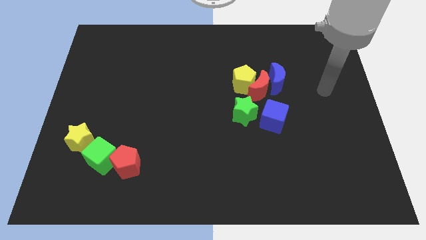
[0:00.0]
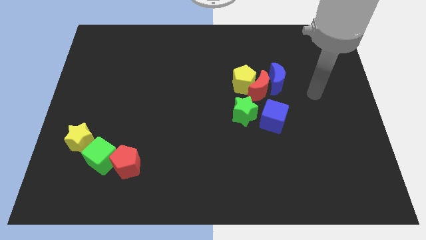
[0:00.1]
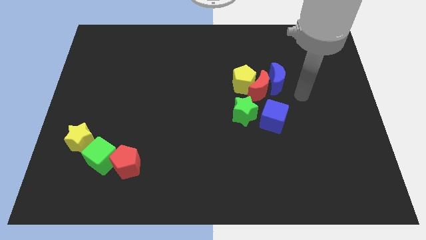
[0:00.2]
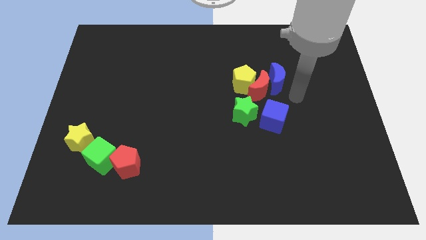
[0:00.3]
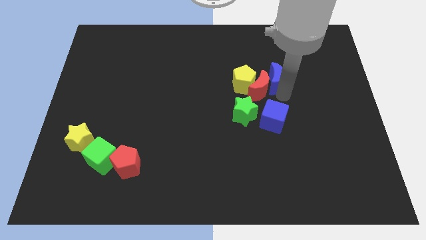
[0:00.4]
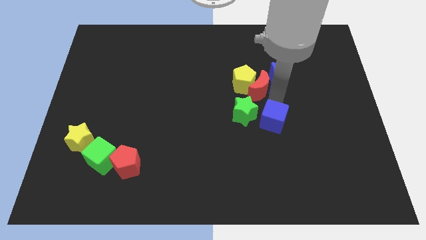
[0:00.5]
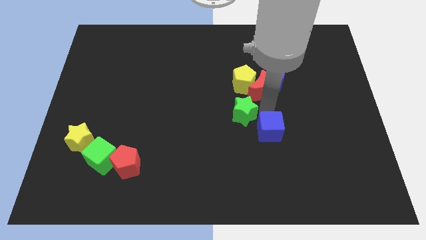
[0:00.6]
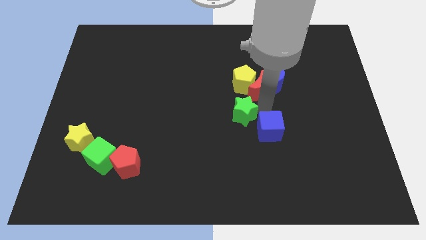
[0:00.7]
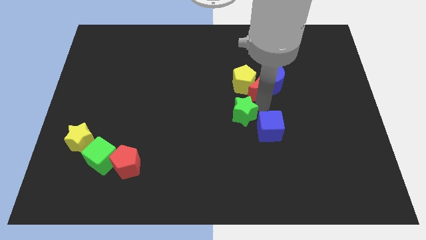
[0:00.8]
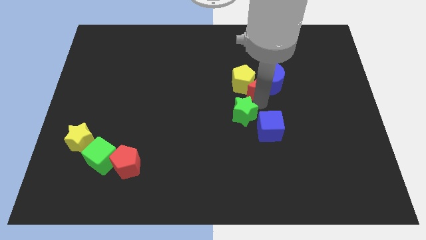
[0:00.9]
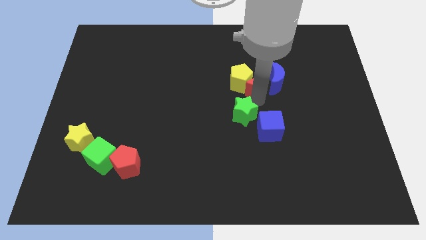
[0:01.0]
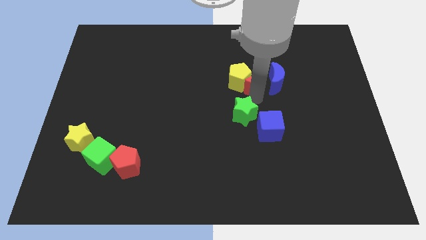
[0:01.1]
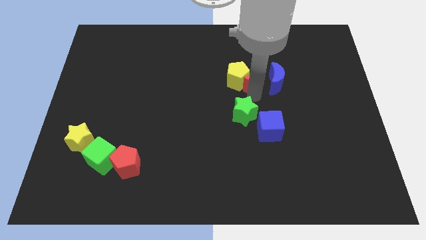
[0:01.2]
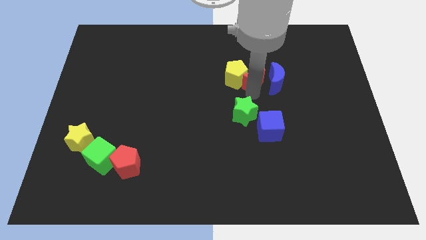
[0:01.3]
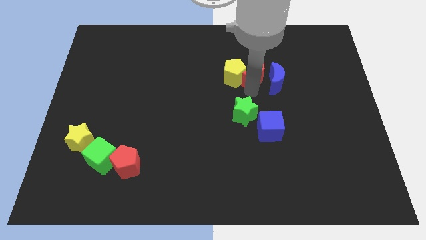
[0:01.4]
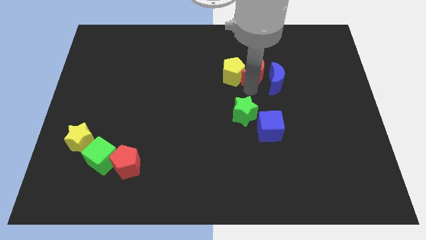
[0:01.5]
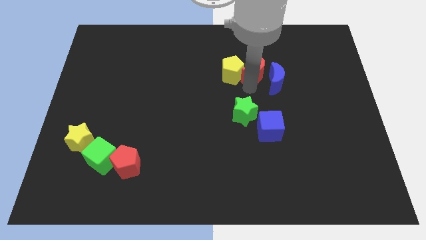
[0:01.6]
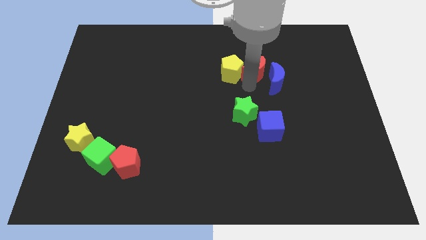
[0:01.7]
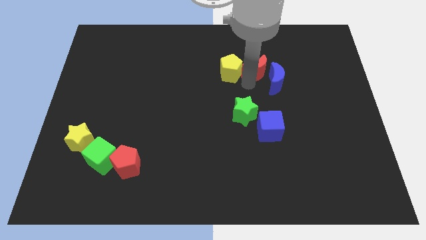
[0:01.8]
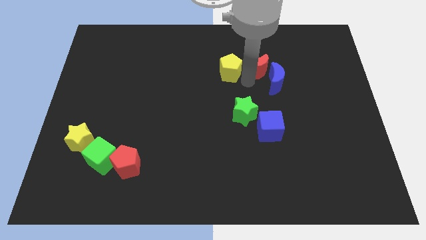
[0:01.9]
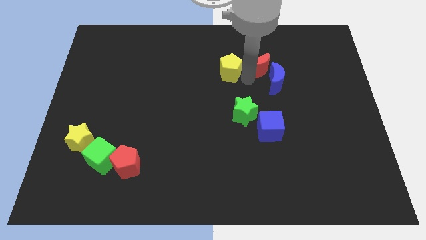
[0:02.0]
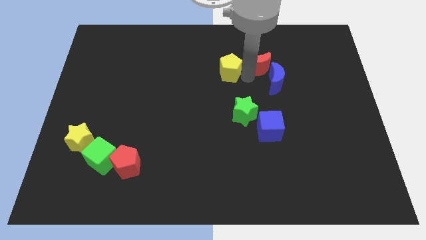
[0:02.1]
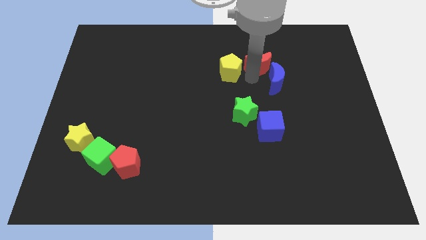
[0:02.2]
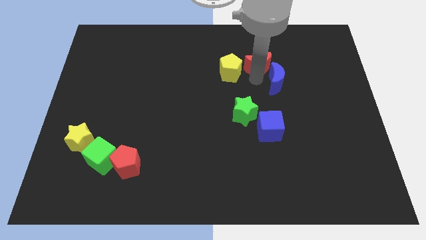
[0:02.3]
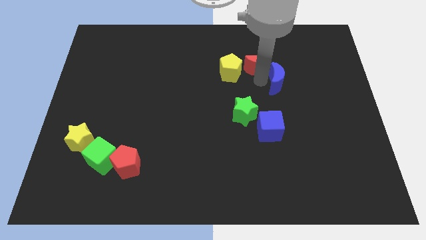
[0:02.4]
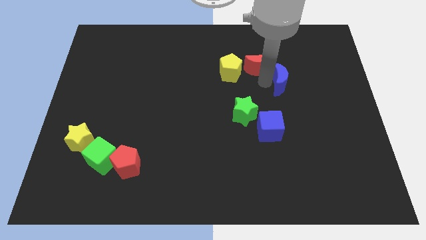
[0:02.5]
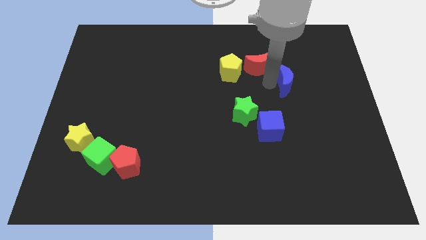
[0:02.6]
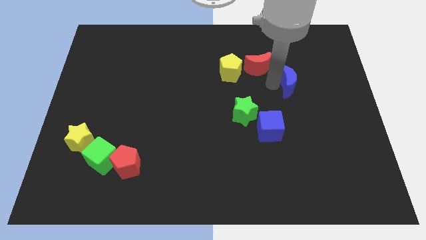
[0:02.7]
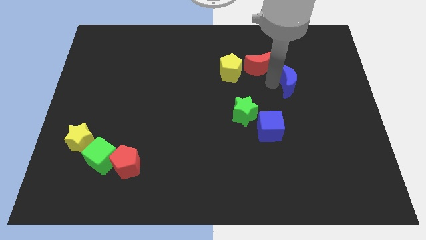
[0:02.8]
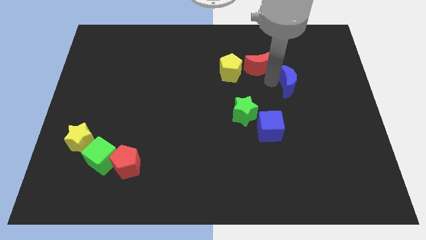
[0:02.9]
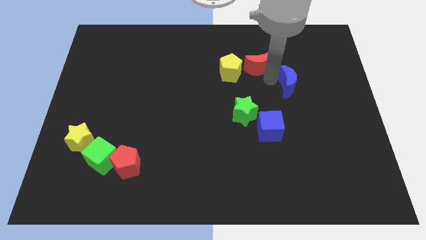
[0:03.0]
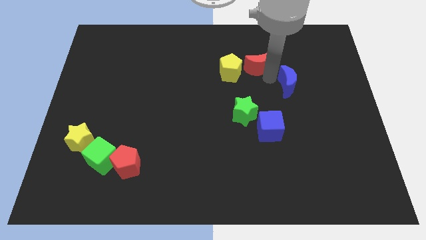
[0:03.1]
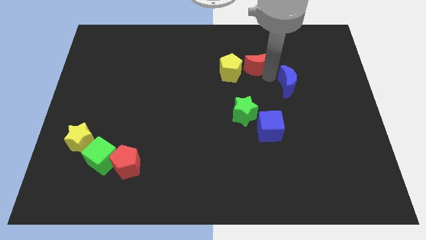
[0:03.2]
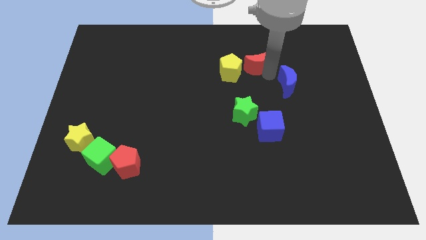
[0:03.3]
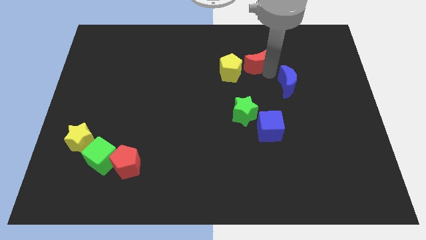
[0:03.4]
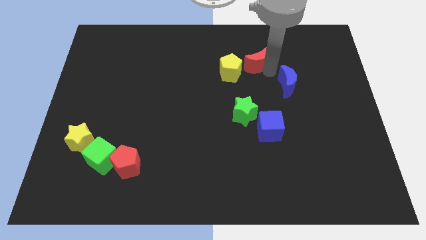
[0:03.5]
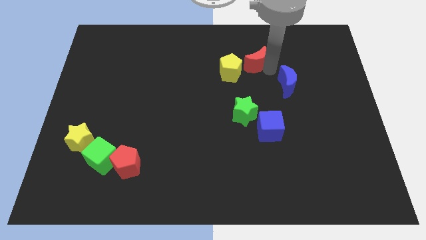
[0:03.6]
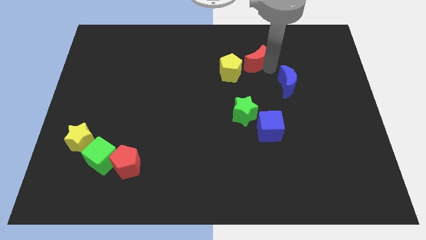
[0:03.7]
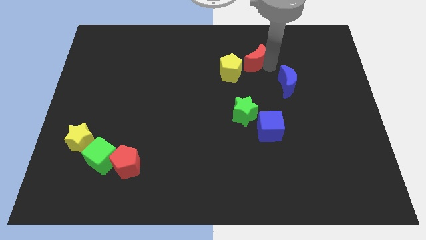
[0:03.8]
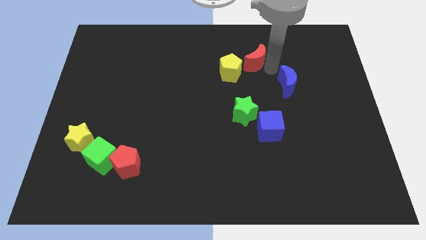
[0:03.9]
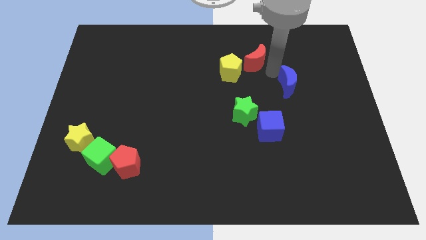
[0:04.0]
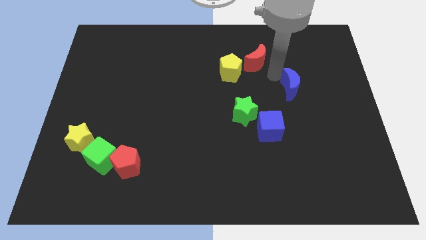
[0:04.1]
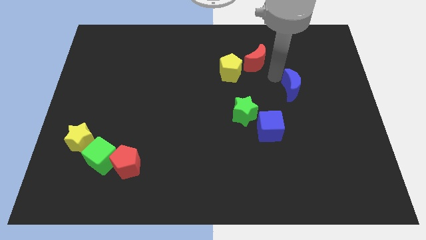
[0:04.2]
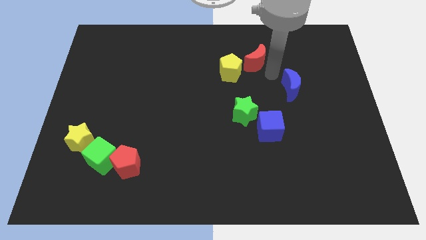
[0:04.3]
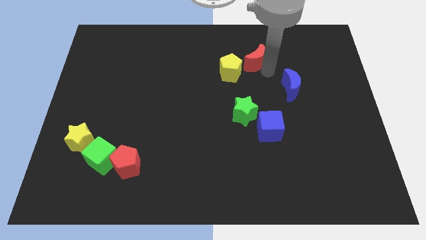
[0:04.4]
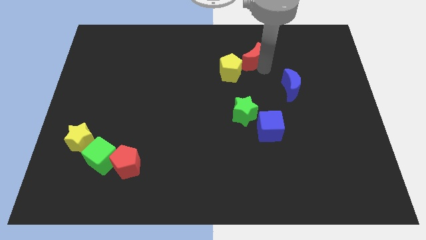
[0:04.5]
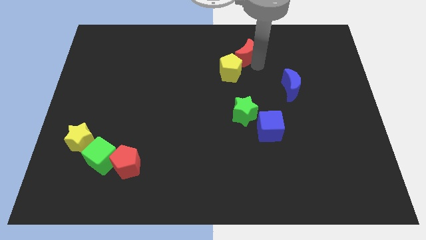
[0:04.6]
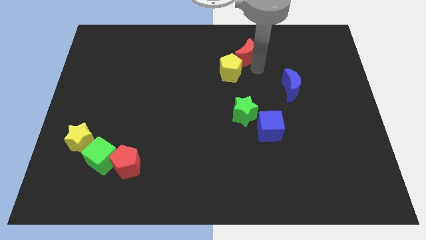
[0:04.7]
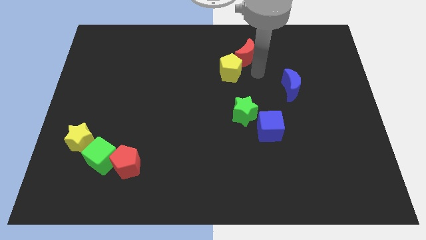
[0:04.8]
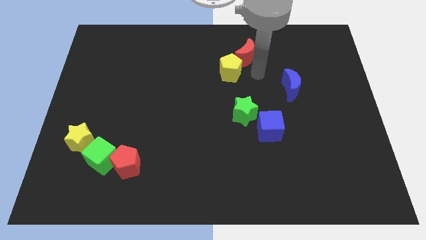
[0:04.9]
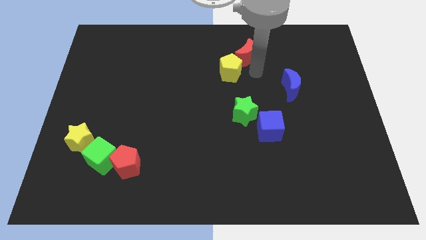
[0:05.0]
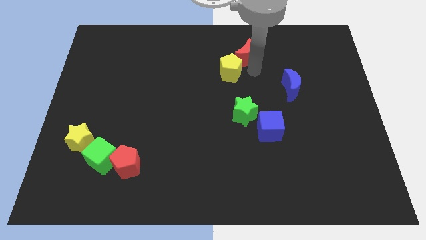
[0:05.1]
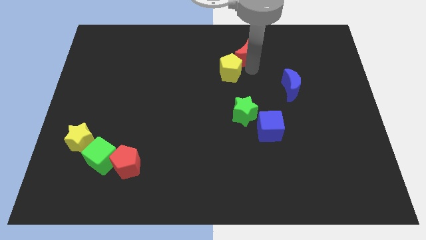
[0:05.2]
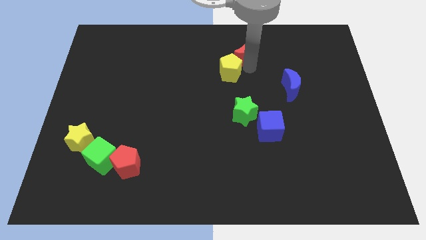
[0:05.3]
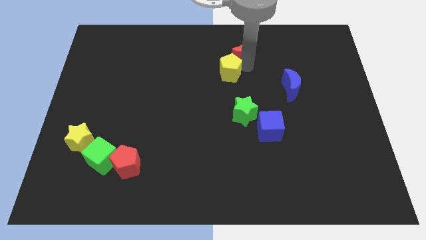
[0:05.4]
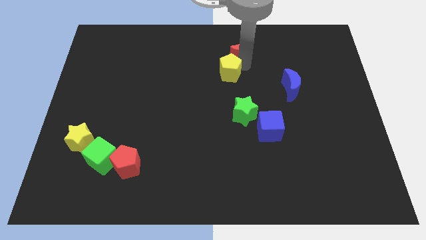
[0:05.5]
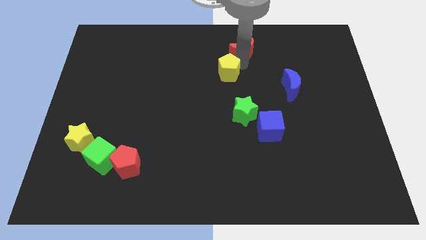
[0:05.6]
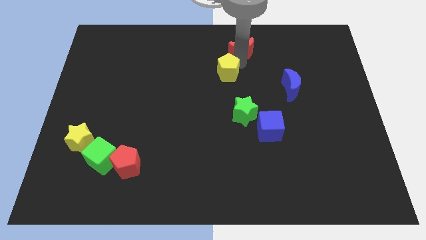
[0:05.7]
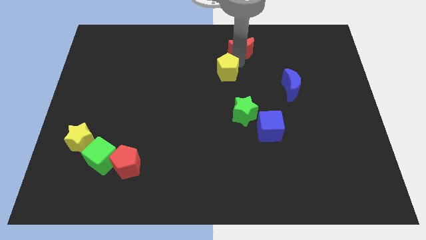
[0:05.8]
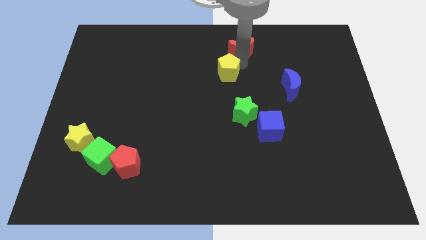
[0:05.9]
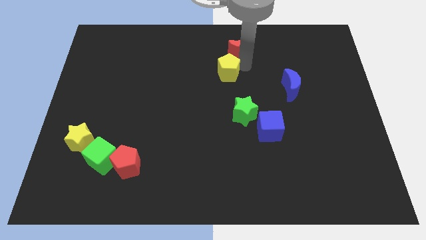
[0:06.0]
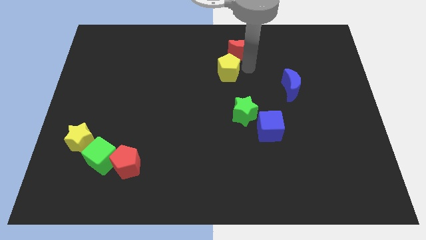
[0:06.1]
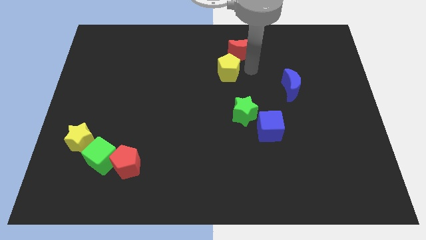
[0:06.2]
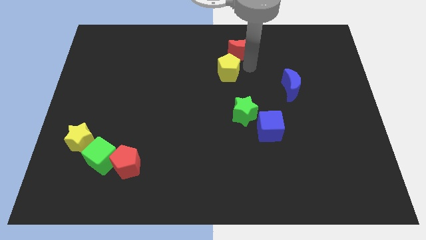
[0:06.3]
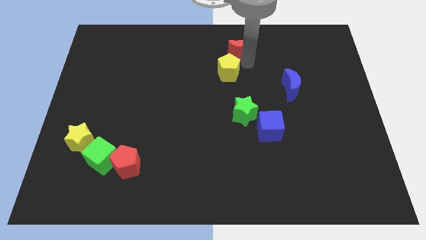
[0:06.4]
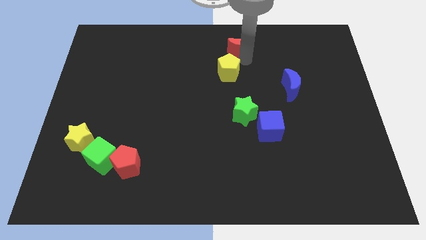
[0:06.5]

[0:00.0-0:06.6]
push the red moon to the towards your base
